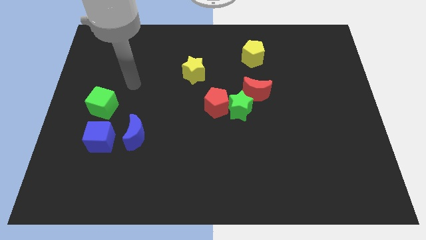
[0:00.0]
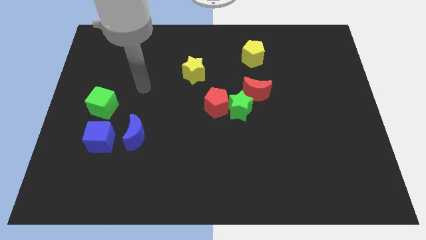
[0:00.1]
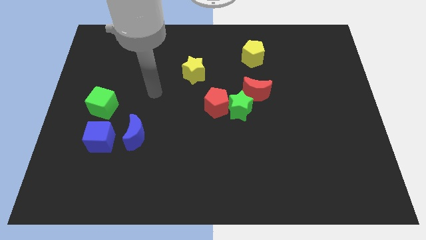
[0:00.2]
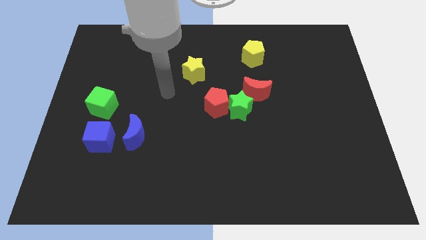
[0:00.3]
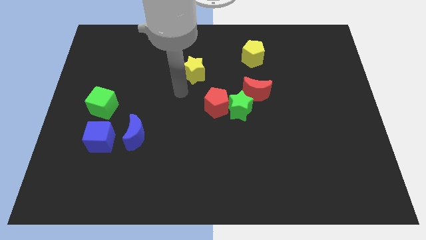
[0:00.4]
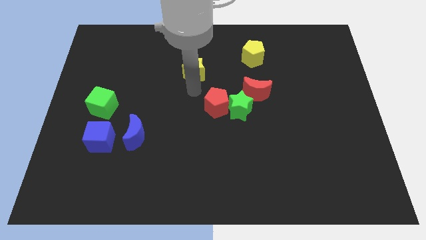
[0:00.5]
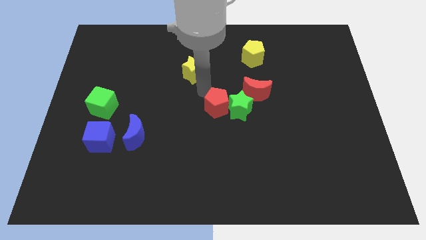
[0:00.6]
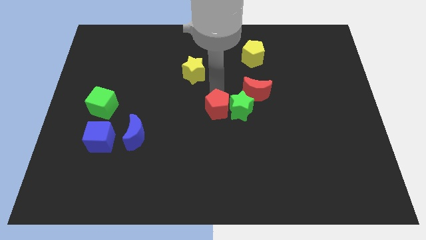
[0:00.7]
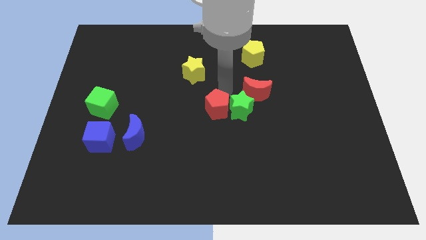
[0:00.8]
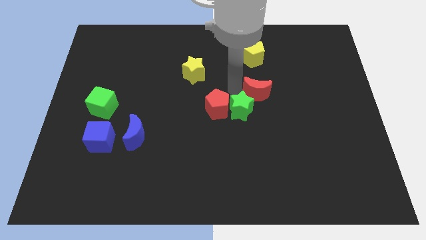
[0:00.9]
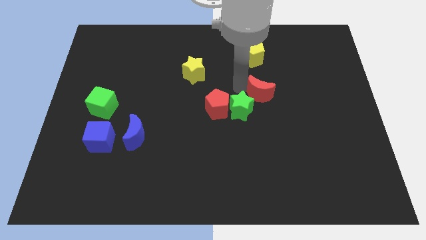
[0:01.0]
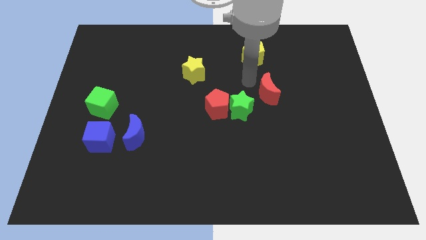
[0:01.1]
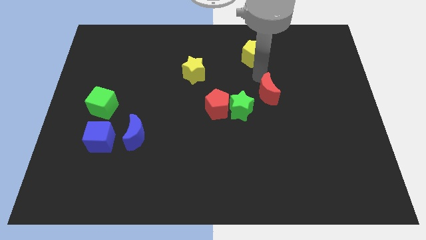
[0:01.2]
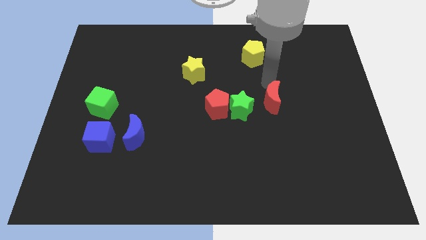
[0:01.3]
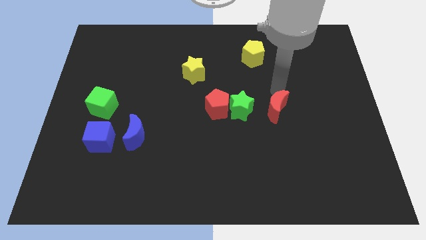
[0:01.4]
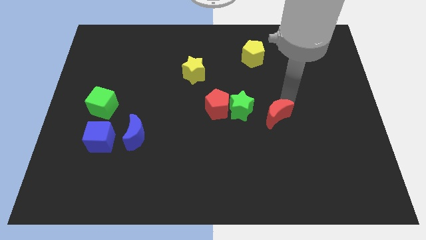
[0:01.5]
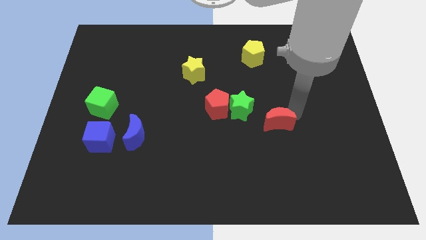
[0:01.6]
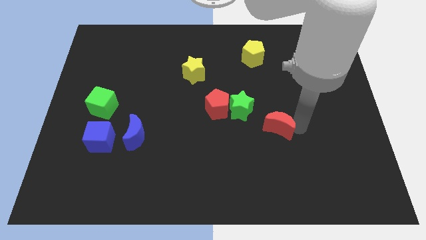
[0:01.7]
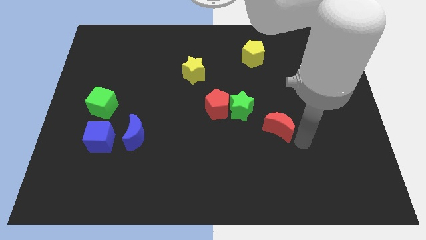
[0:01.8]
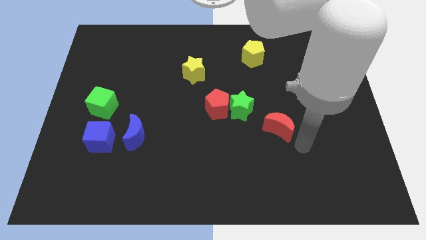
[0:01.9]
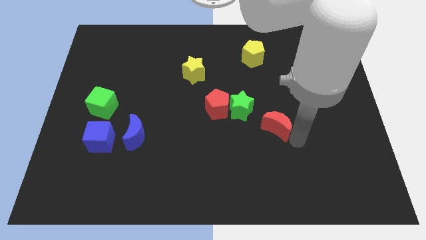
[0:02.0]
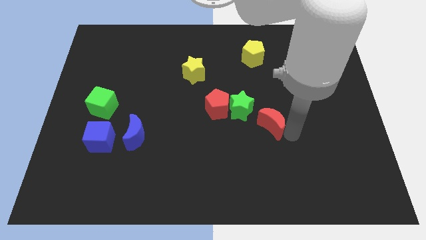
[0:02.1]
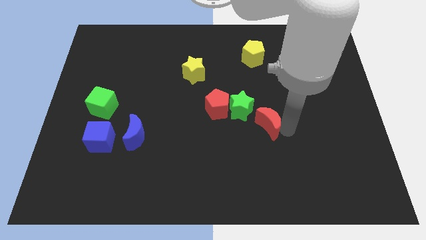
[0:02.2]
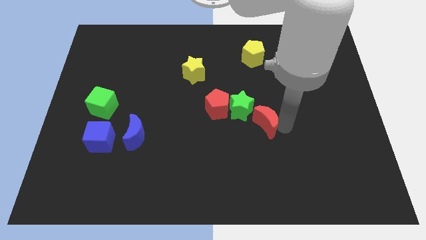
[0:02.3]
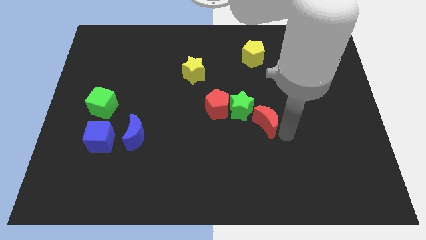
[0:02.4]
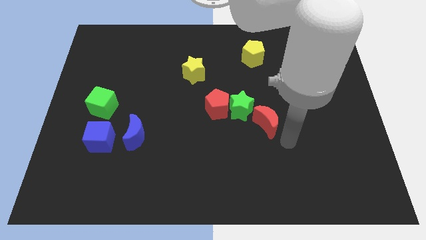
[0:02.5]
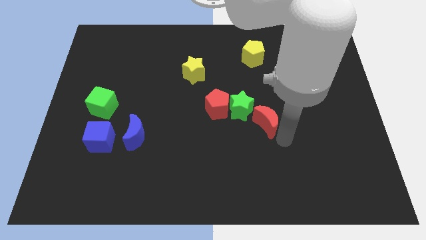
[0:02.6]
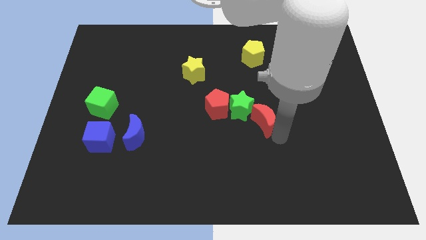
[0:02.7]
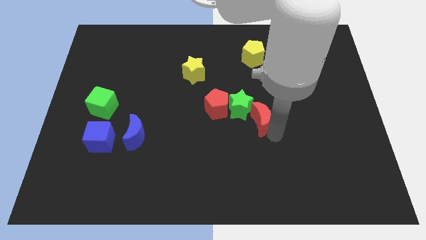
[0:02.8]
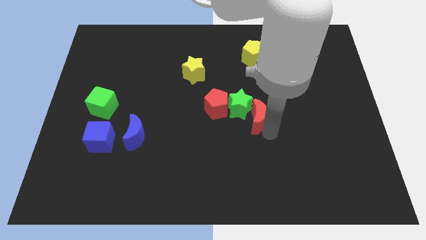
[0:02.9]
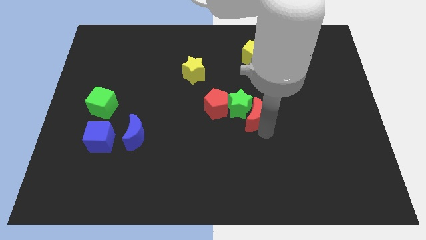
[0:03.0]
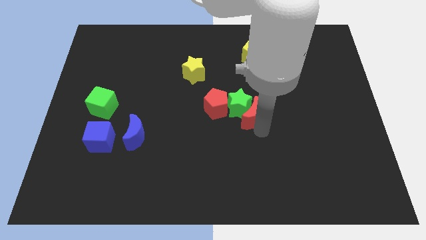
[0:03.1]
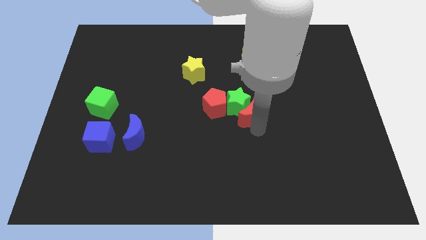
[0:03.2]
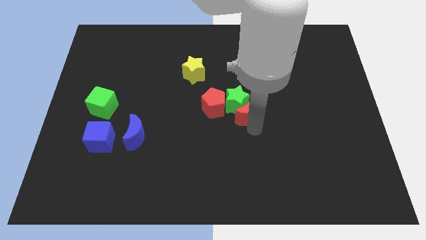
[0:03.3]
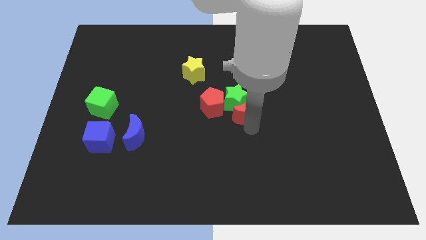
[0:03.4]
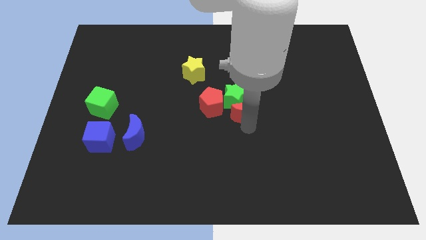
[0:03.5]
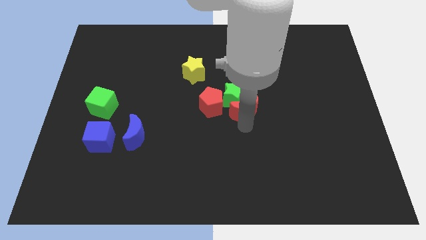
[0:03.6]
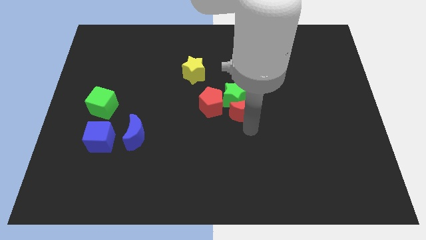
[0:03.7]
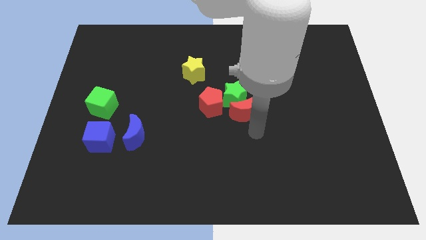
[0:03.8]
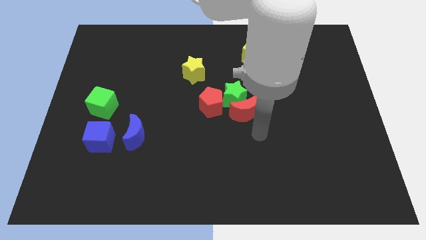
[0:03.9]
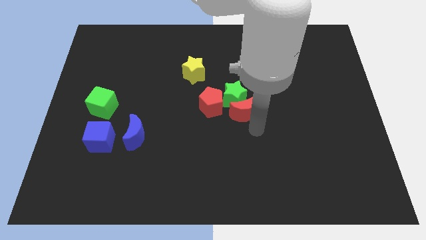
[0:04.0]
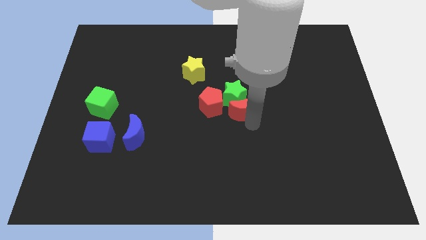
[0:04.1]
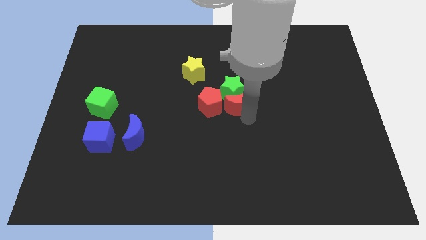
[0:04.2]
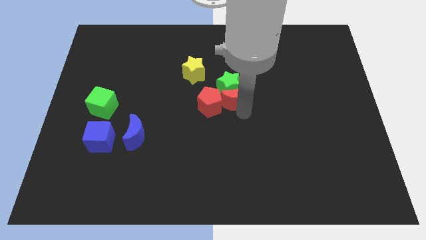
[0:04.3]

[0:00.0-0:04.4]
put the red moon close to the red pentagon

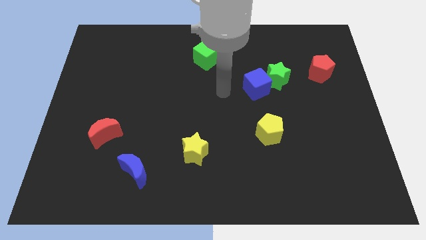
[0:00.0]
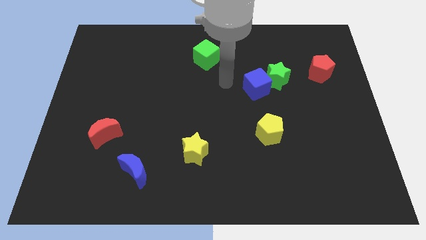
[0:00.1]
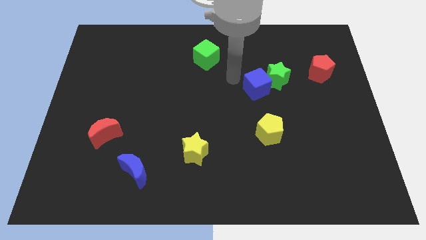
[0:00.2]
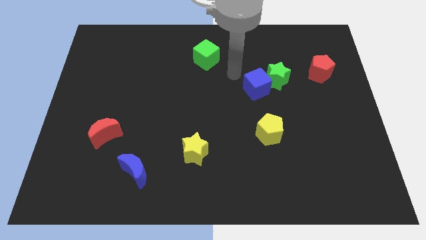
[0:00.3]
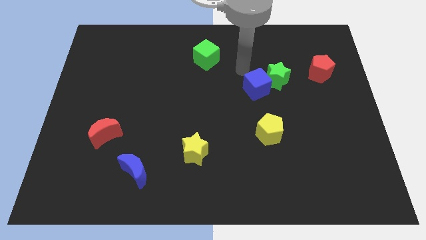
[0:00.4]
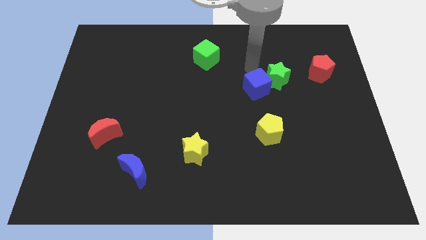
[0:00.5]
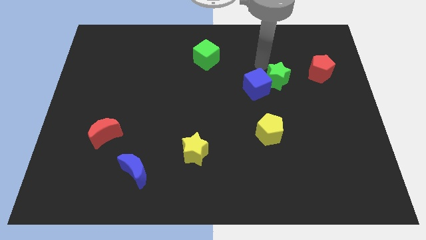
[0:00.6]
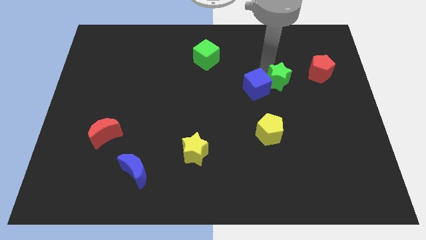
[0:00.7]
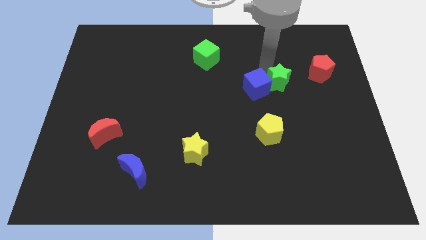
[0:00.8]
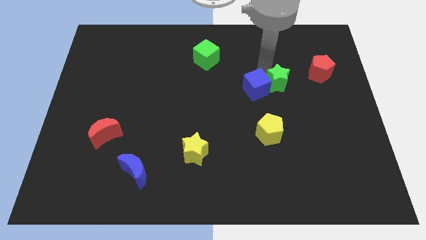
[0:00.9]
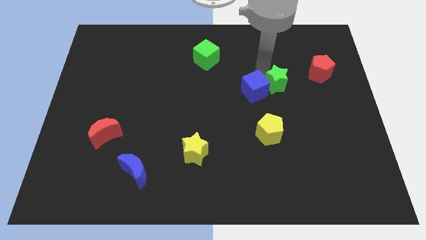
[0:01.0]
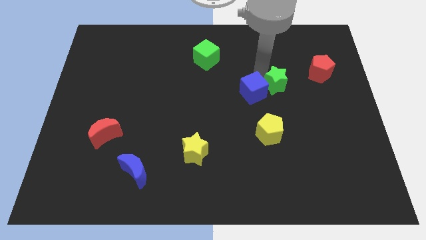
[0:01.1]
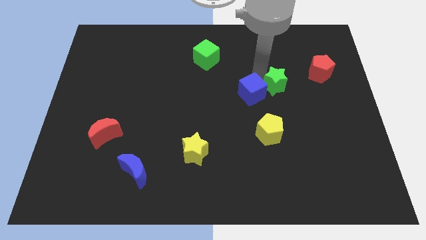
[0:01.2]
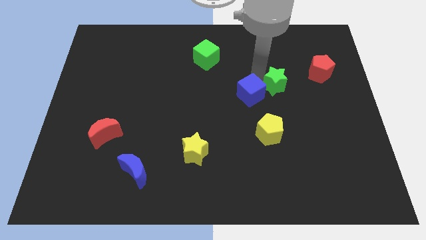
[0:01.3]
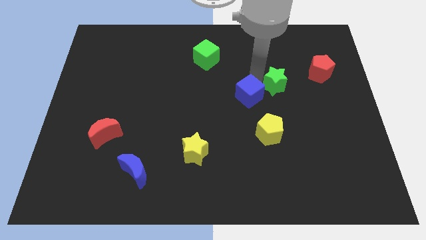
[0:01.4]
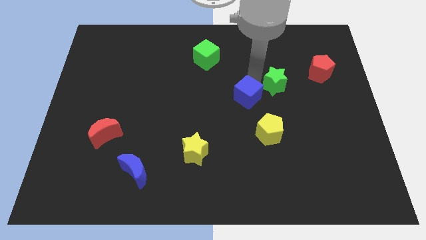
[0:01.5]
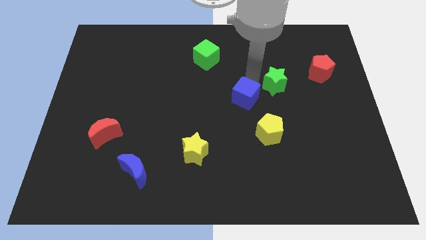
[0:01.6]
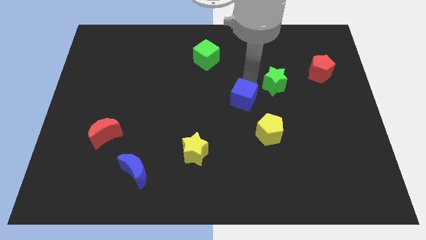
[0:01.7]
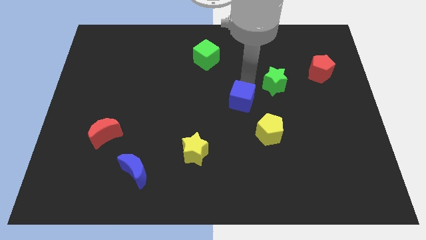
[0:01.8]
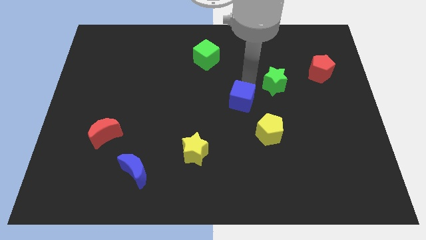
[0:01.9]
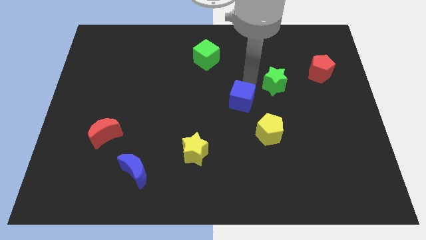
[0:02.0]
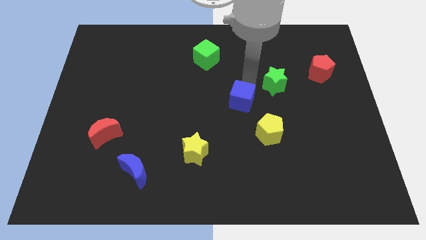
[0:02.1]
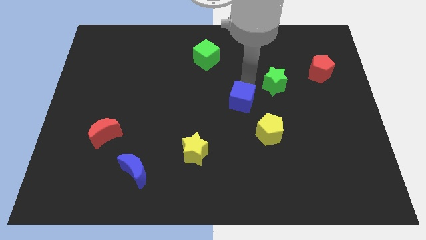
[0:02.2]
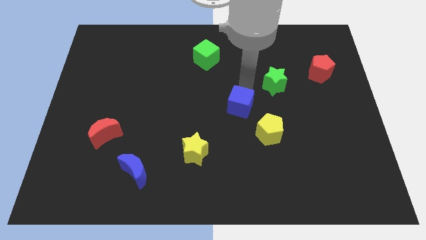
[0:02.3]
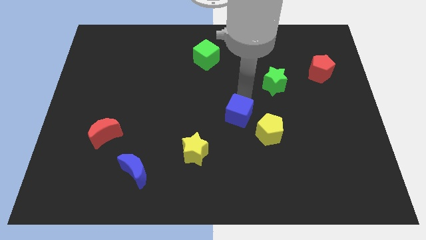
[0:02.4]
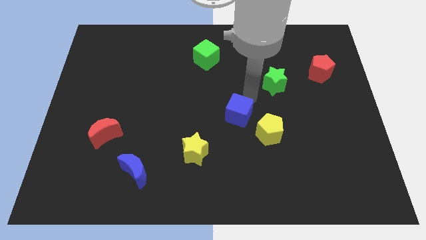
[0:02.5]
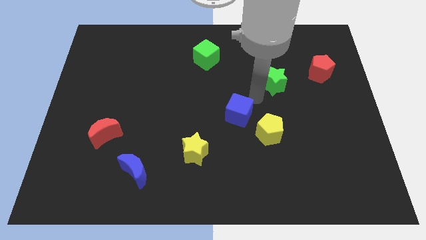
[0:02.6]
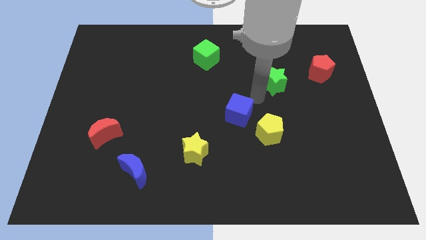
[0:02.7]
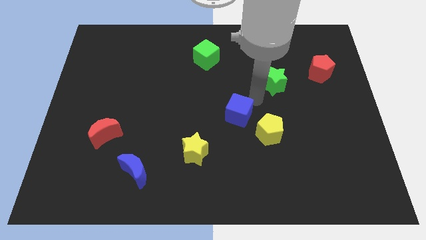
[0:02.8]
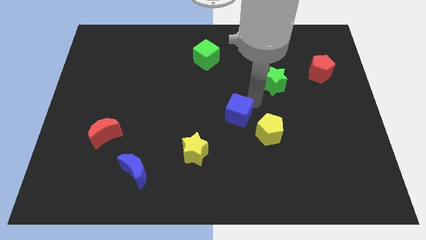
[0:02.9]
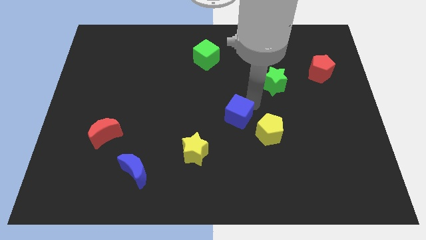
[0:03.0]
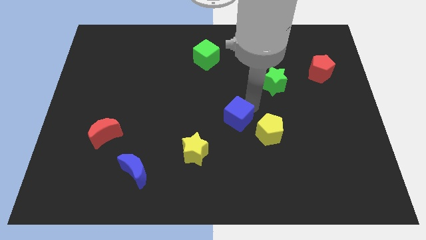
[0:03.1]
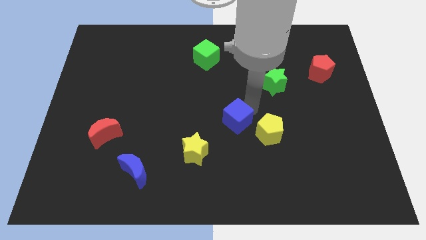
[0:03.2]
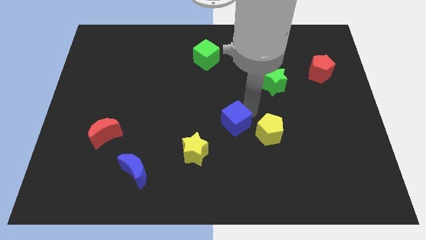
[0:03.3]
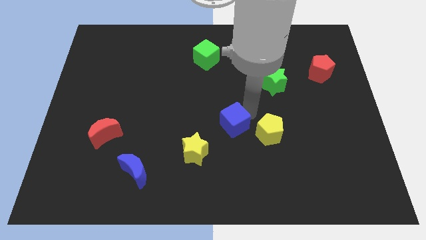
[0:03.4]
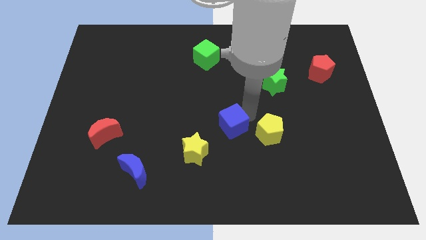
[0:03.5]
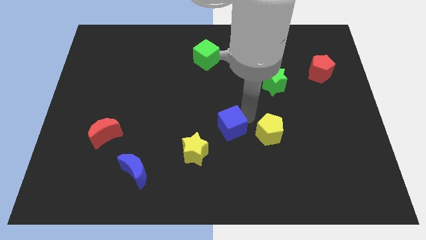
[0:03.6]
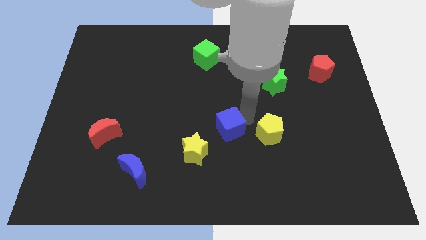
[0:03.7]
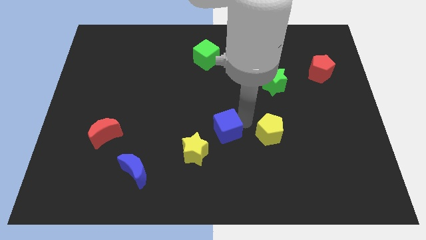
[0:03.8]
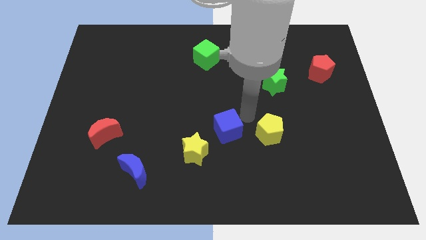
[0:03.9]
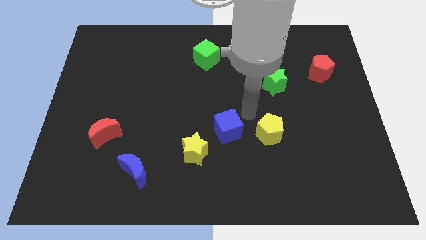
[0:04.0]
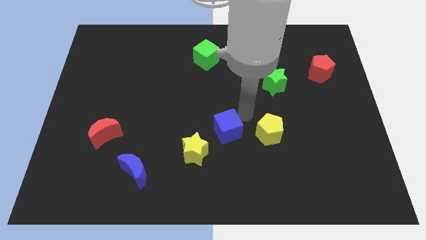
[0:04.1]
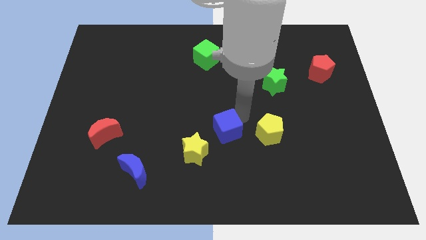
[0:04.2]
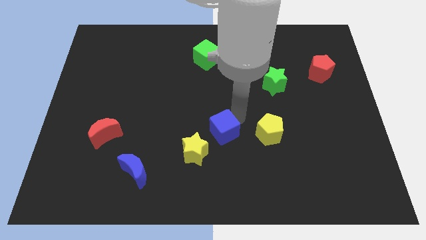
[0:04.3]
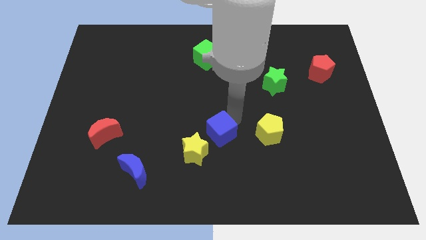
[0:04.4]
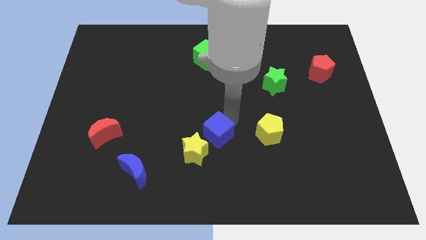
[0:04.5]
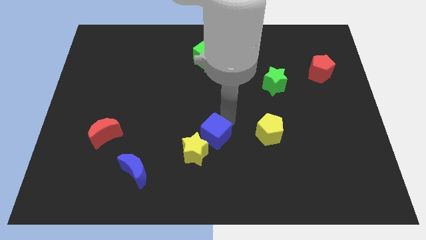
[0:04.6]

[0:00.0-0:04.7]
push the blue cube close to the yellow star
